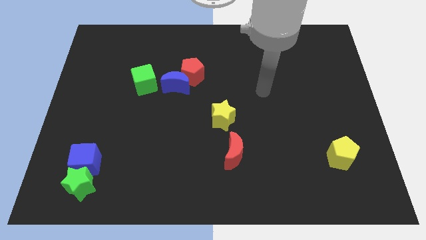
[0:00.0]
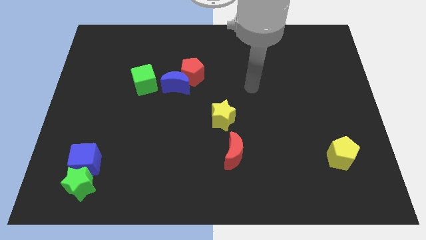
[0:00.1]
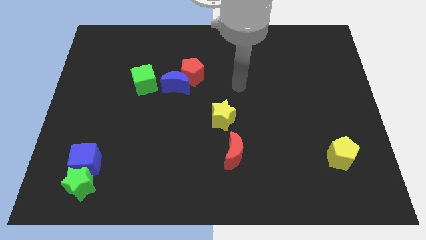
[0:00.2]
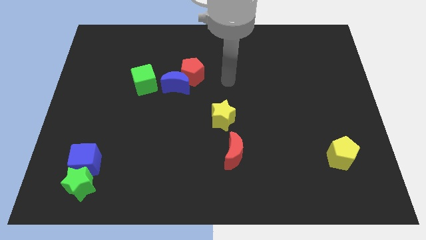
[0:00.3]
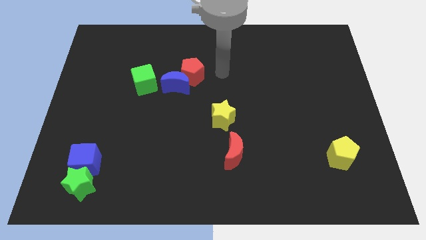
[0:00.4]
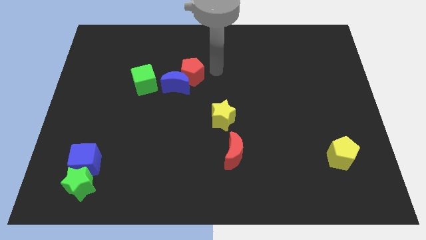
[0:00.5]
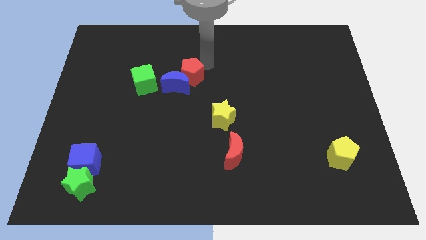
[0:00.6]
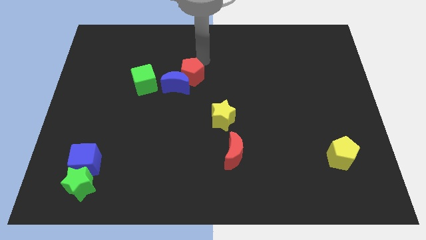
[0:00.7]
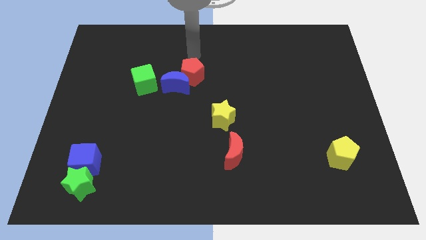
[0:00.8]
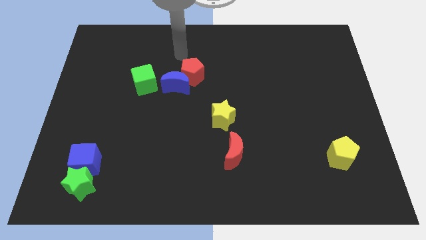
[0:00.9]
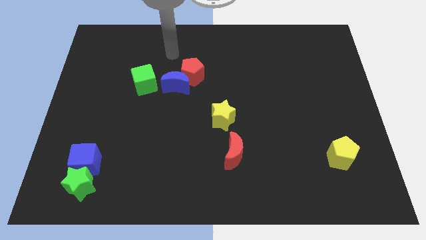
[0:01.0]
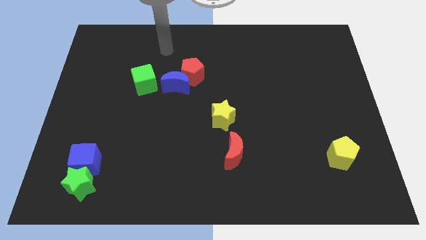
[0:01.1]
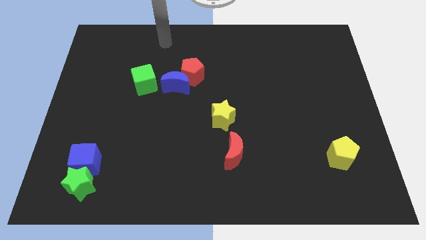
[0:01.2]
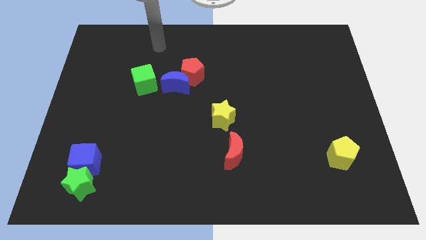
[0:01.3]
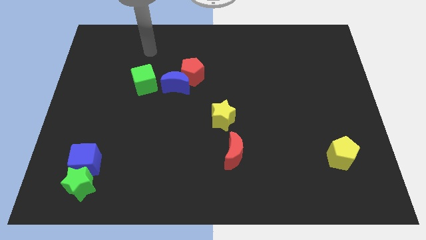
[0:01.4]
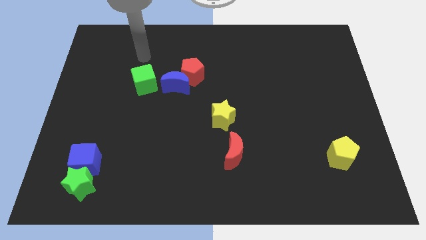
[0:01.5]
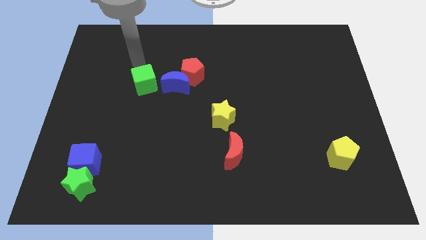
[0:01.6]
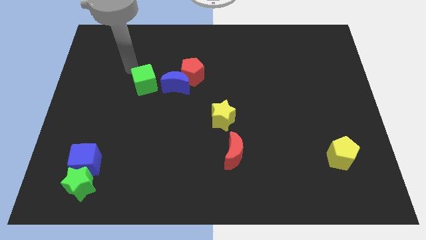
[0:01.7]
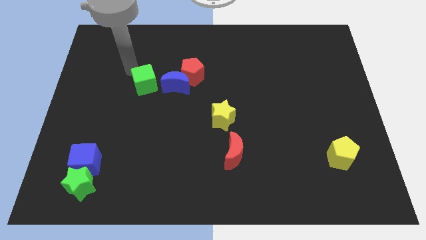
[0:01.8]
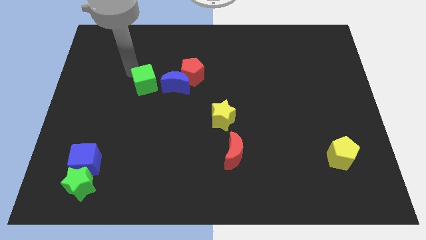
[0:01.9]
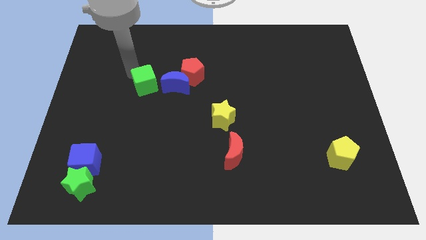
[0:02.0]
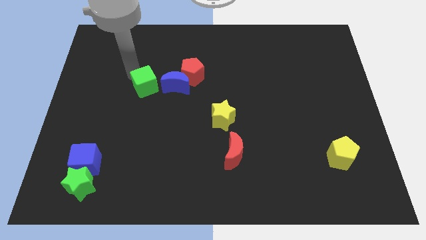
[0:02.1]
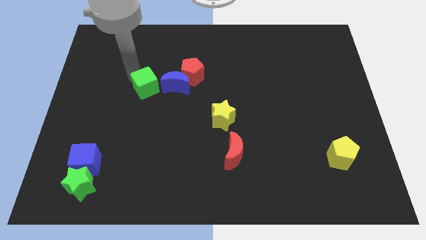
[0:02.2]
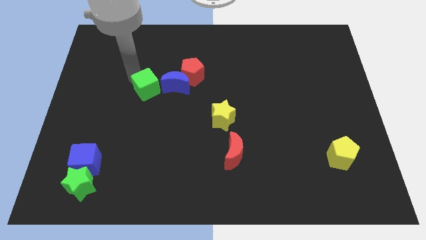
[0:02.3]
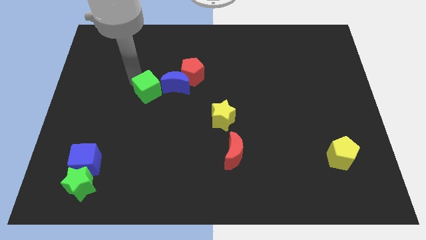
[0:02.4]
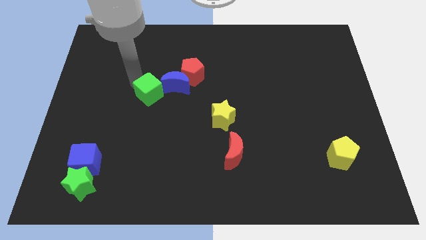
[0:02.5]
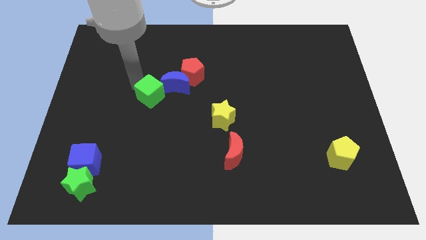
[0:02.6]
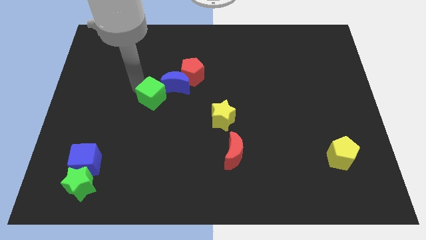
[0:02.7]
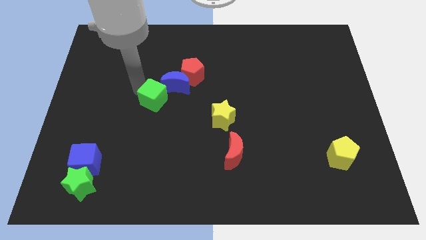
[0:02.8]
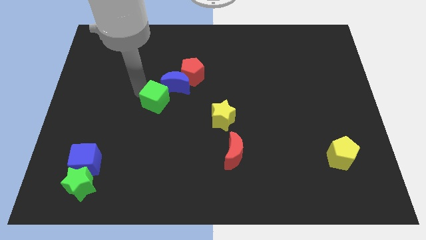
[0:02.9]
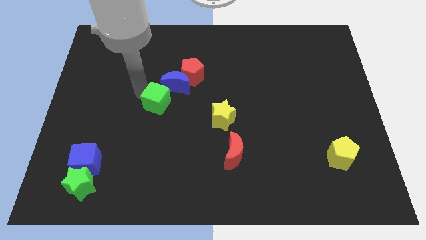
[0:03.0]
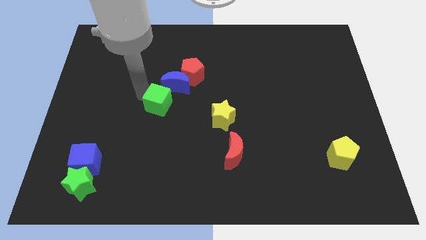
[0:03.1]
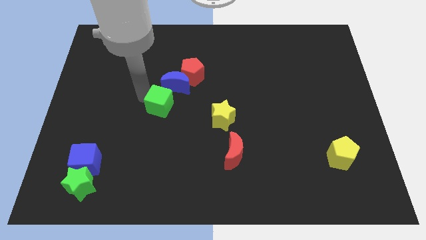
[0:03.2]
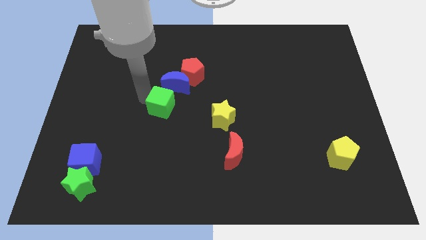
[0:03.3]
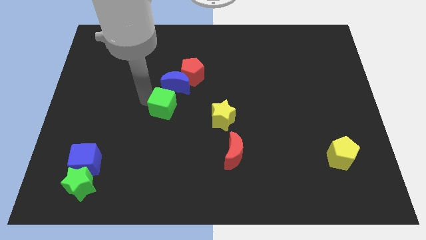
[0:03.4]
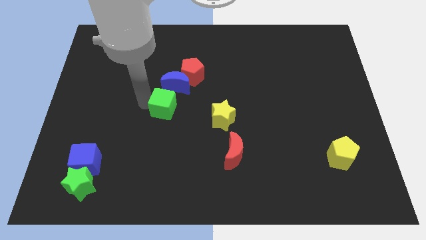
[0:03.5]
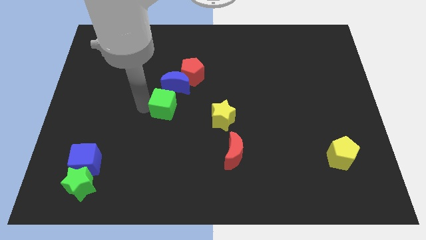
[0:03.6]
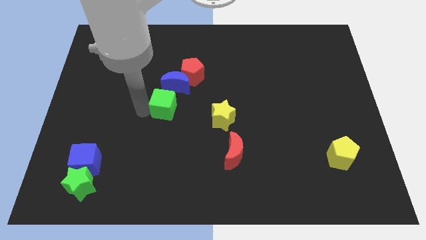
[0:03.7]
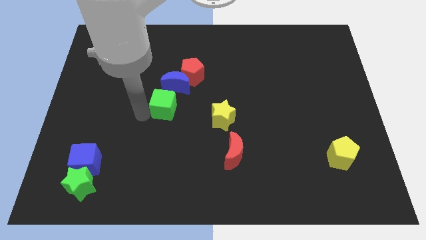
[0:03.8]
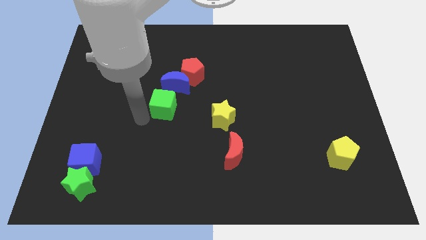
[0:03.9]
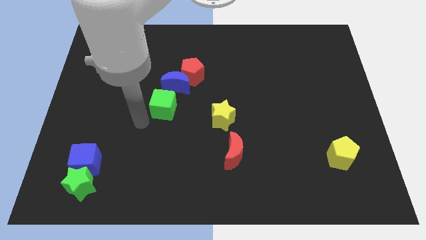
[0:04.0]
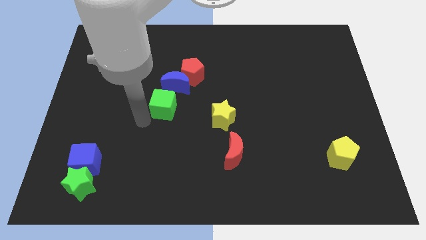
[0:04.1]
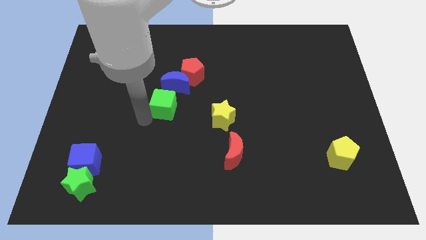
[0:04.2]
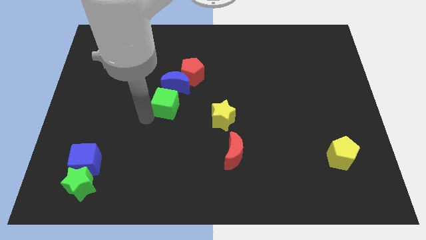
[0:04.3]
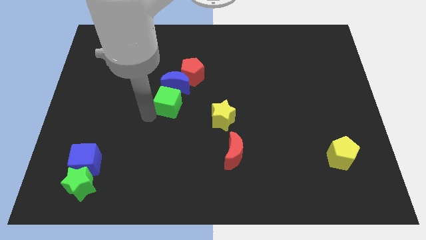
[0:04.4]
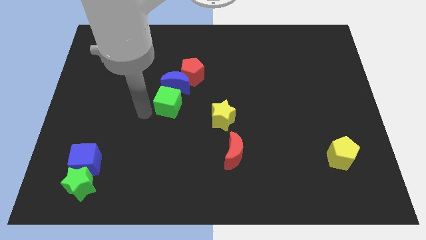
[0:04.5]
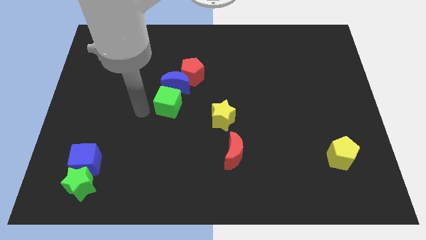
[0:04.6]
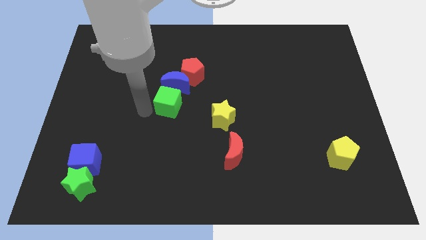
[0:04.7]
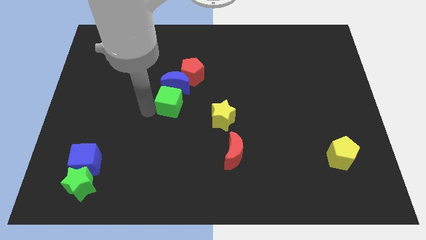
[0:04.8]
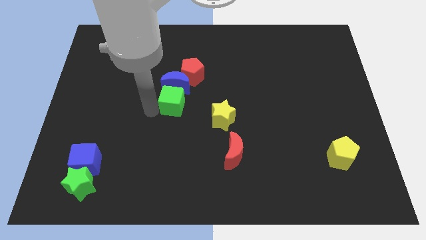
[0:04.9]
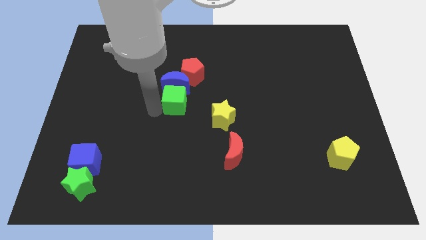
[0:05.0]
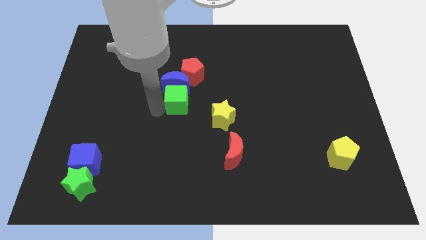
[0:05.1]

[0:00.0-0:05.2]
move the green cube a little bit to the right

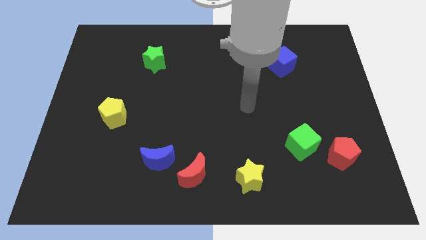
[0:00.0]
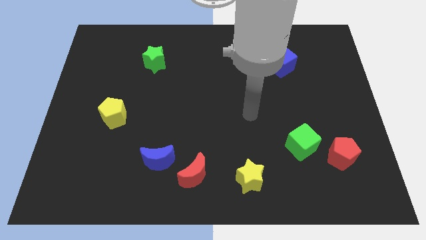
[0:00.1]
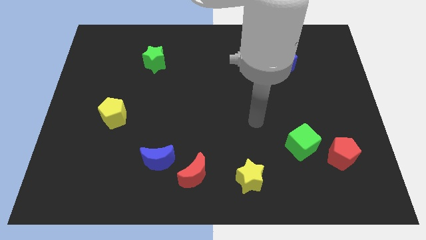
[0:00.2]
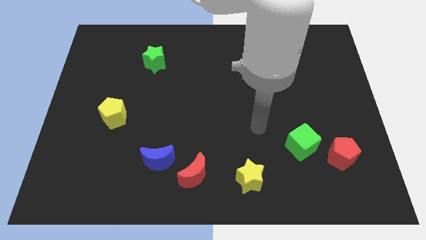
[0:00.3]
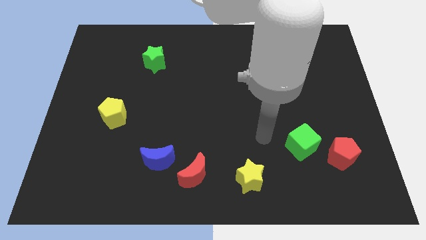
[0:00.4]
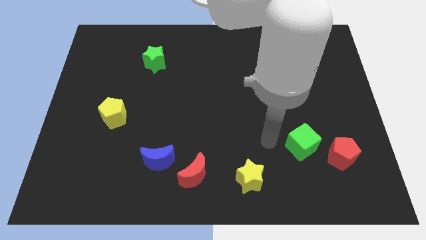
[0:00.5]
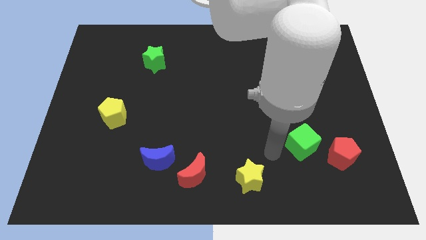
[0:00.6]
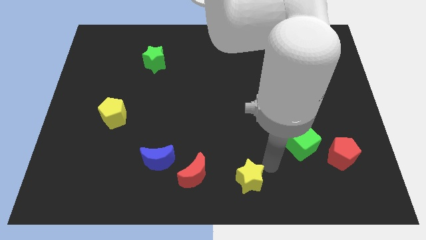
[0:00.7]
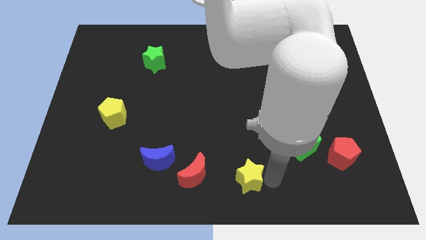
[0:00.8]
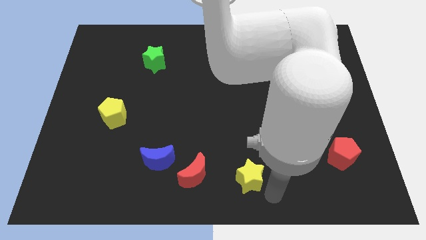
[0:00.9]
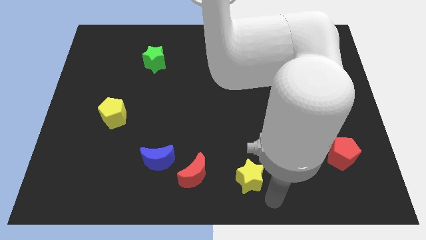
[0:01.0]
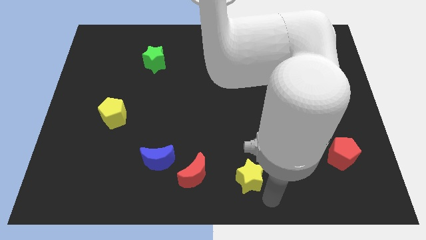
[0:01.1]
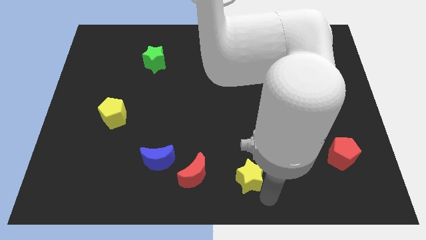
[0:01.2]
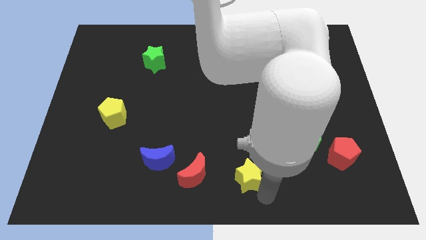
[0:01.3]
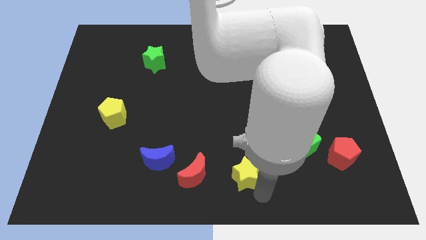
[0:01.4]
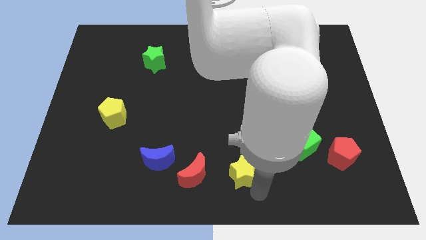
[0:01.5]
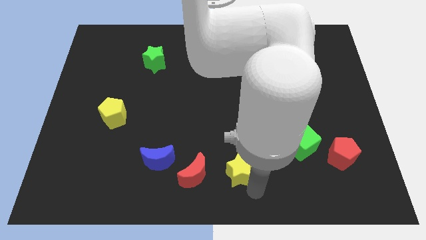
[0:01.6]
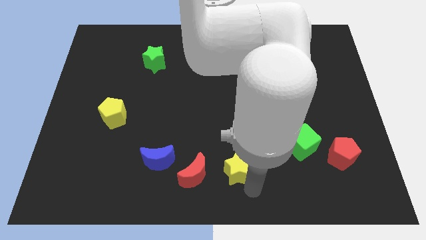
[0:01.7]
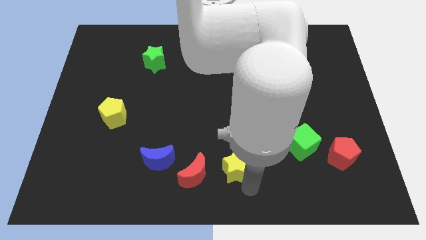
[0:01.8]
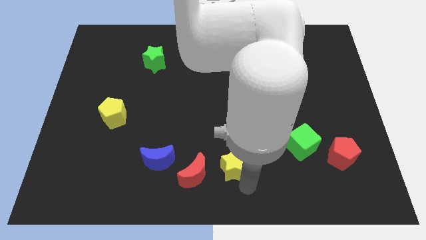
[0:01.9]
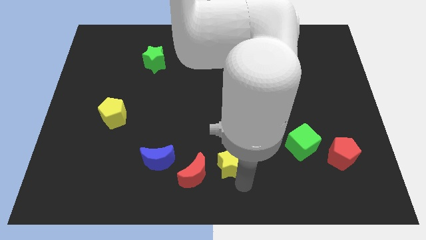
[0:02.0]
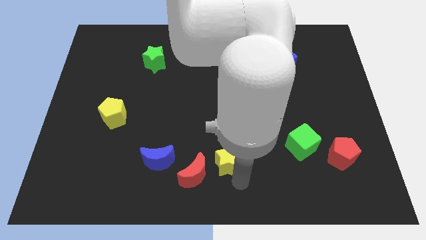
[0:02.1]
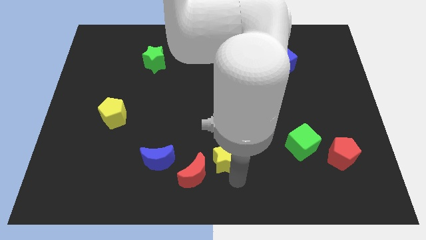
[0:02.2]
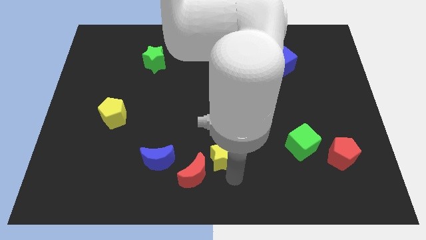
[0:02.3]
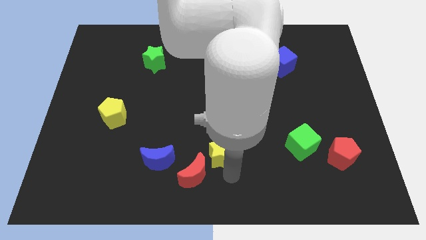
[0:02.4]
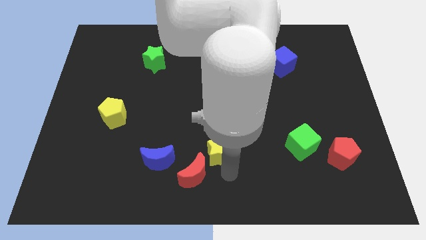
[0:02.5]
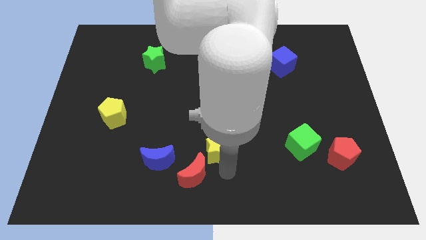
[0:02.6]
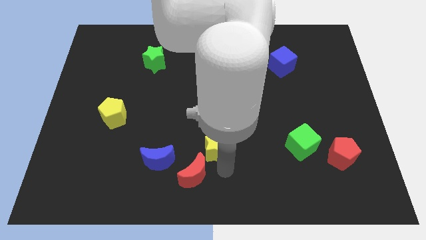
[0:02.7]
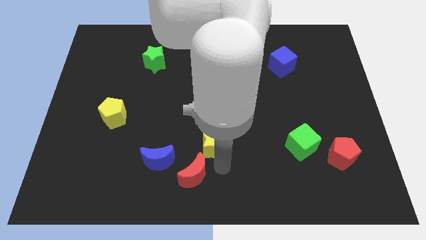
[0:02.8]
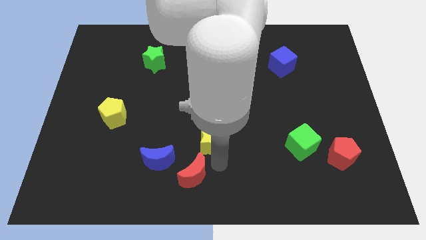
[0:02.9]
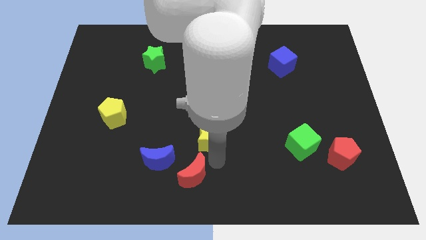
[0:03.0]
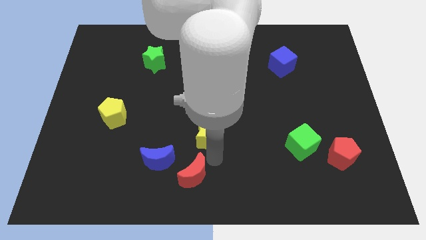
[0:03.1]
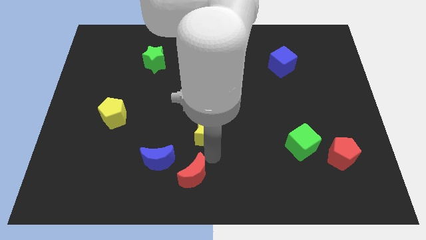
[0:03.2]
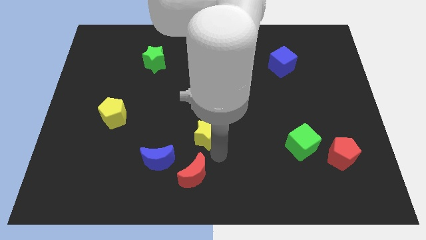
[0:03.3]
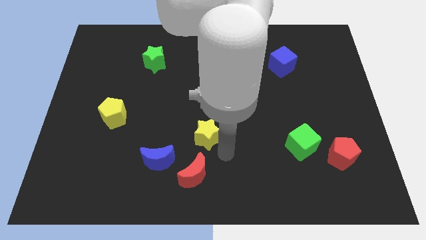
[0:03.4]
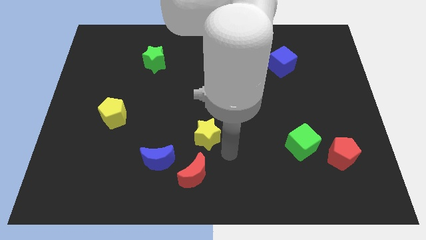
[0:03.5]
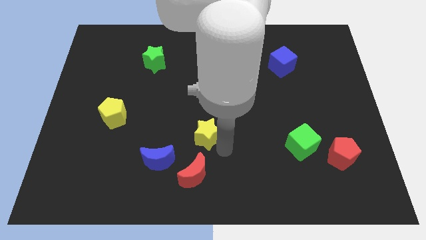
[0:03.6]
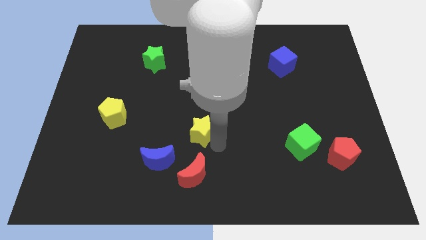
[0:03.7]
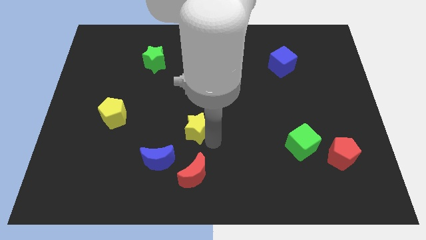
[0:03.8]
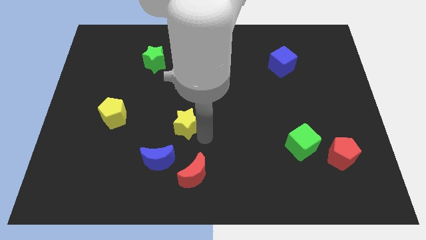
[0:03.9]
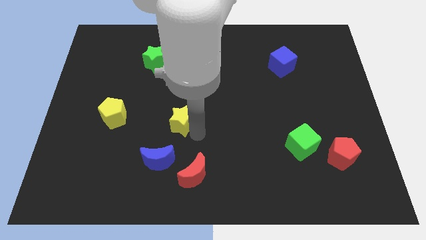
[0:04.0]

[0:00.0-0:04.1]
push the yellow star upwards and then left
